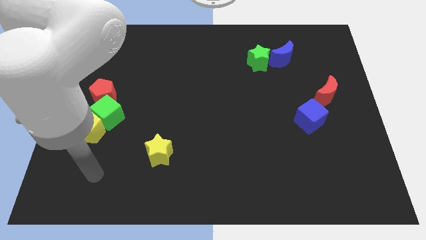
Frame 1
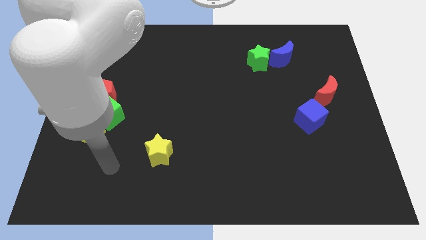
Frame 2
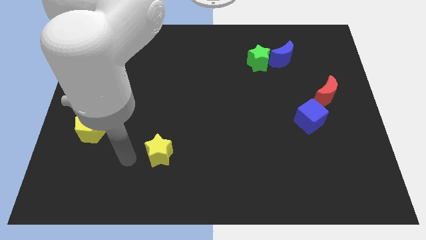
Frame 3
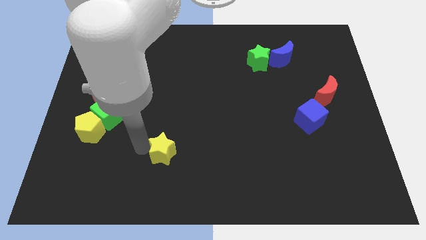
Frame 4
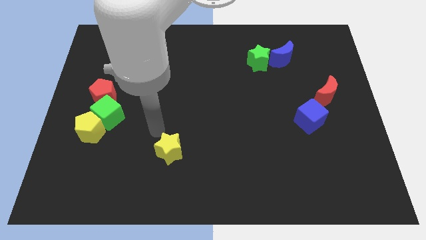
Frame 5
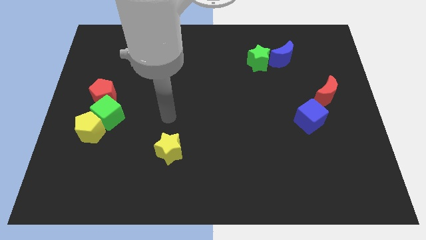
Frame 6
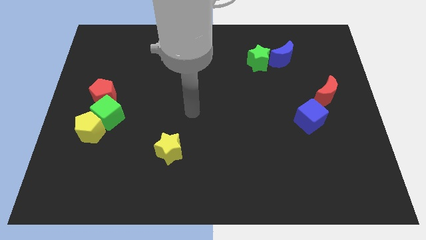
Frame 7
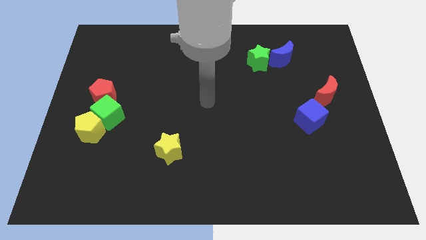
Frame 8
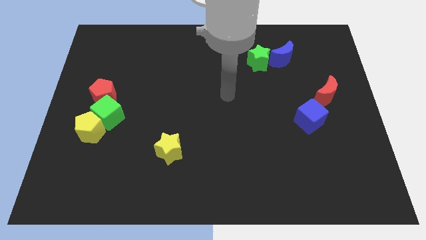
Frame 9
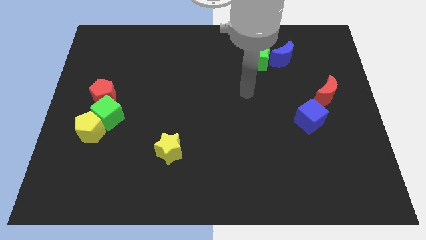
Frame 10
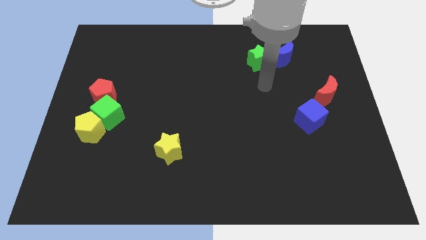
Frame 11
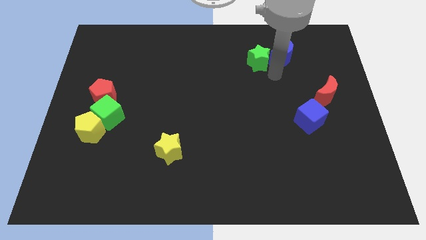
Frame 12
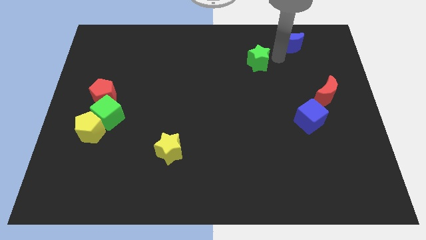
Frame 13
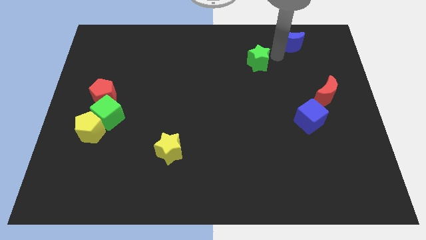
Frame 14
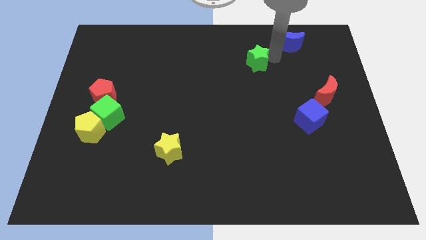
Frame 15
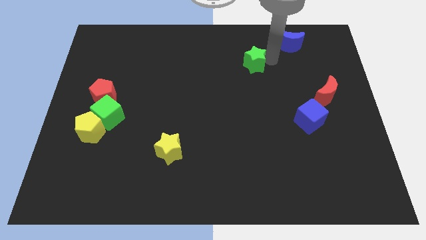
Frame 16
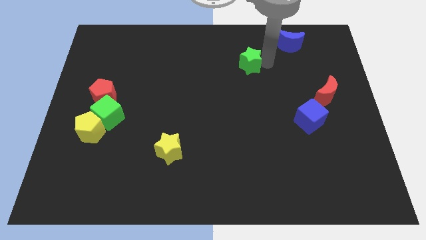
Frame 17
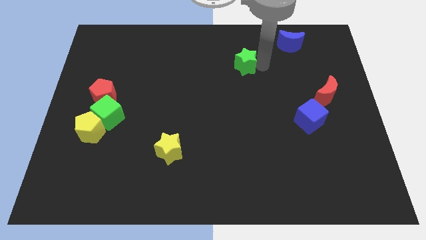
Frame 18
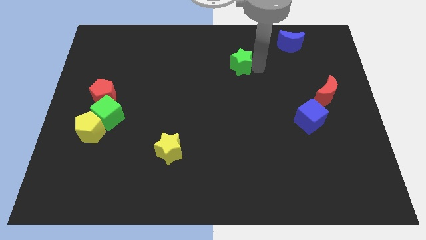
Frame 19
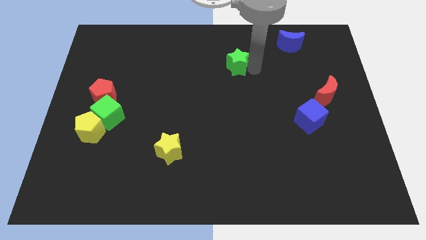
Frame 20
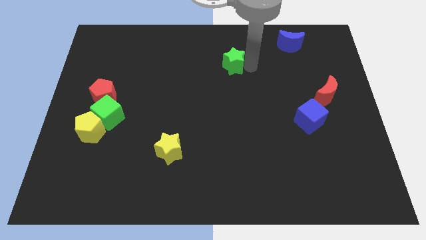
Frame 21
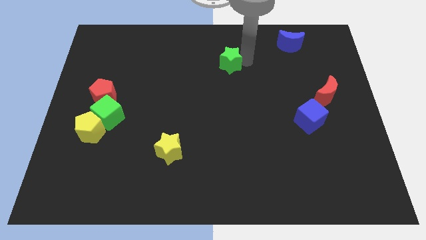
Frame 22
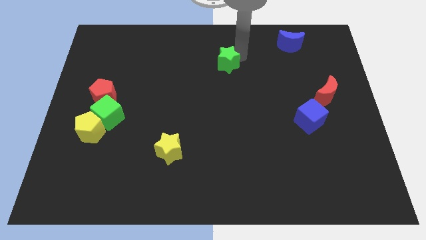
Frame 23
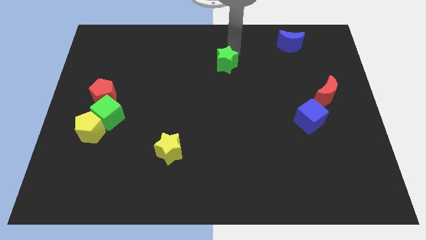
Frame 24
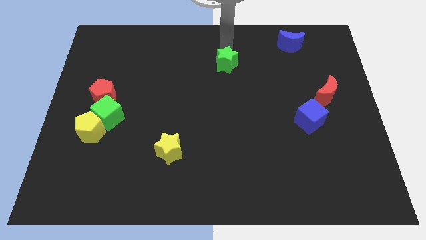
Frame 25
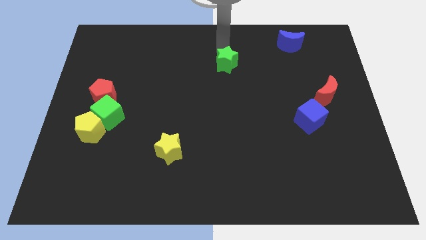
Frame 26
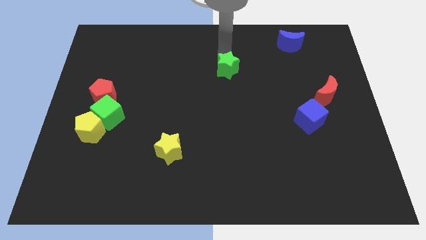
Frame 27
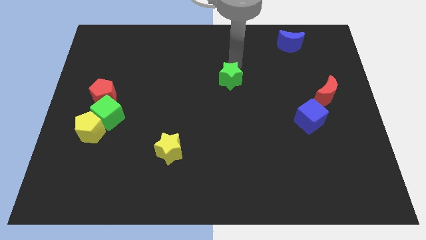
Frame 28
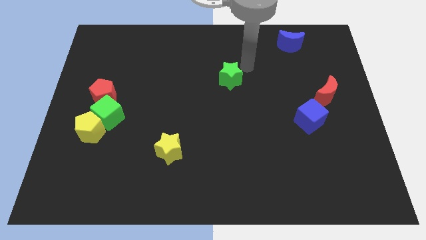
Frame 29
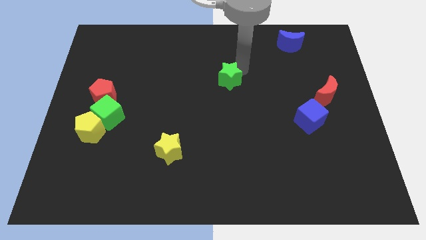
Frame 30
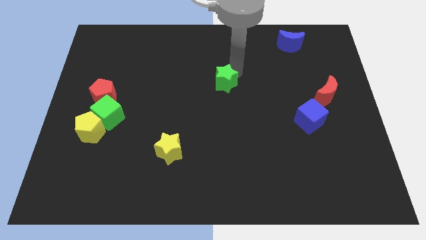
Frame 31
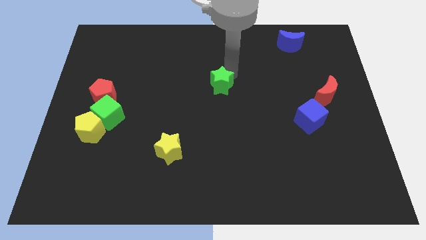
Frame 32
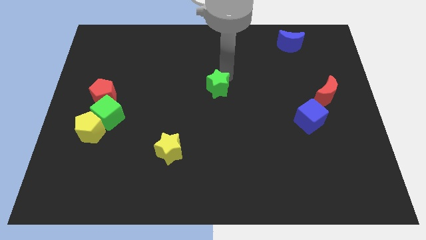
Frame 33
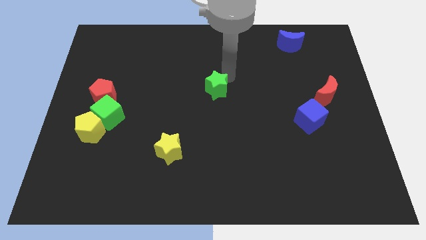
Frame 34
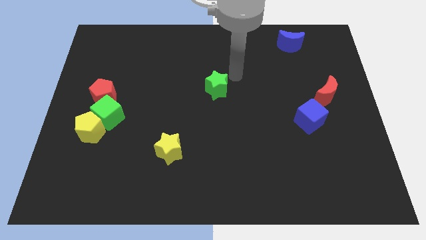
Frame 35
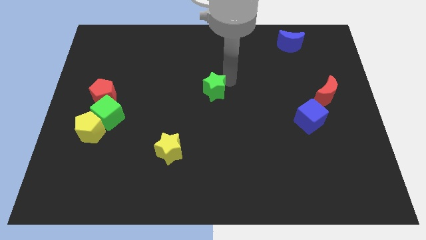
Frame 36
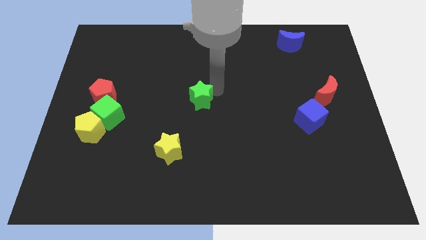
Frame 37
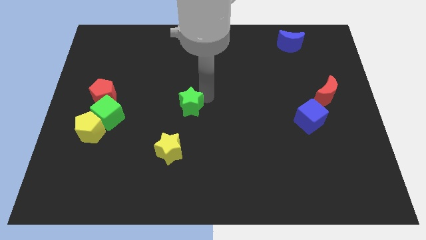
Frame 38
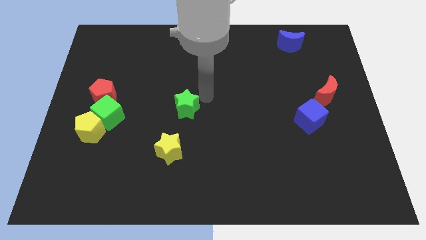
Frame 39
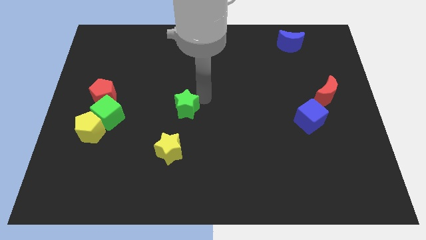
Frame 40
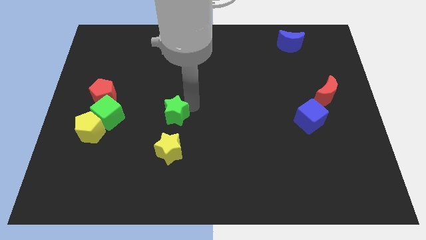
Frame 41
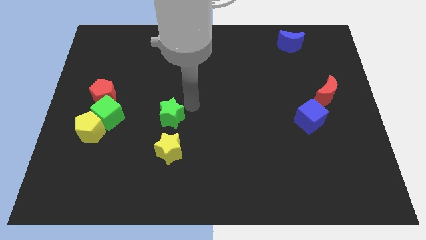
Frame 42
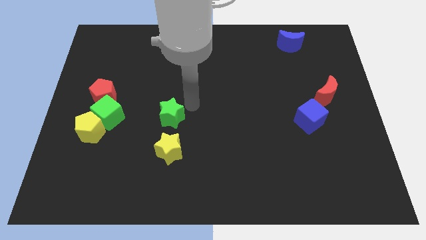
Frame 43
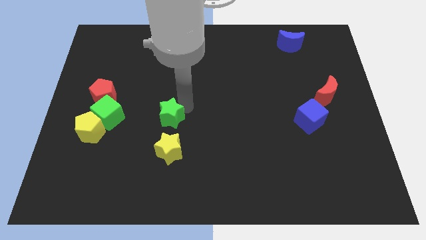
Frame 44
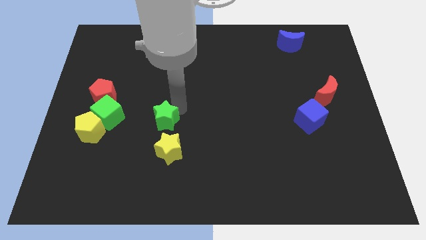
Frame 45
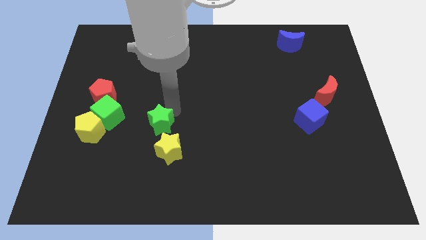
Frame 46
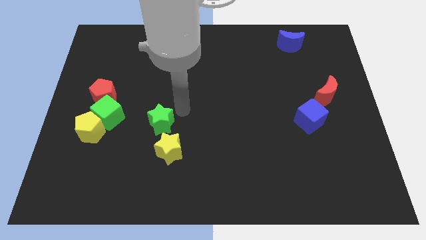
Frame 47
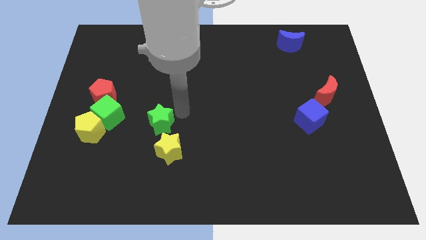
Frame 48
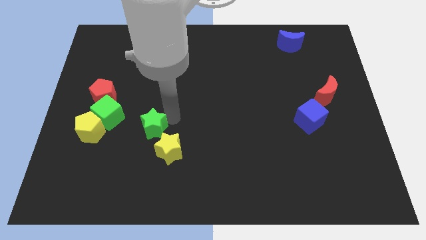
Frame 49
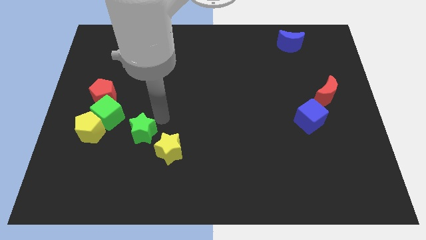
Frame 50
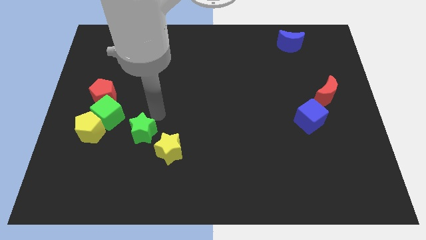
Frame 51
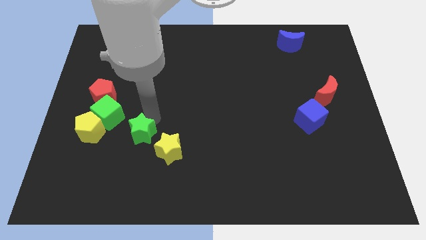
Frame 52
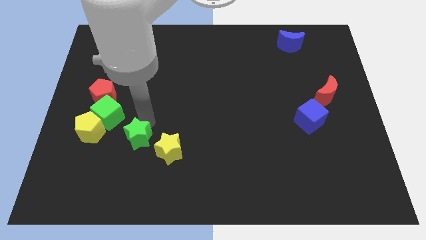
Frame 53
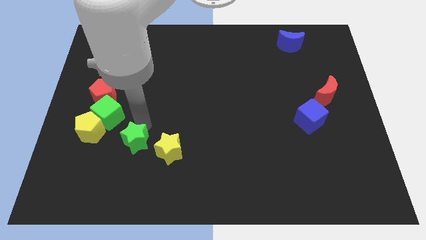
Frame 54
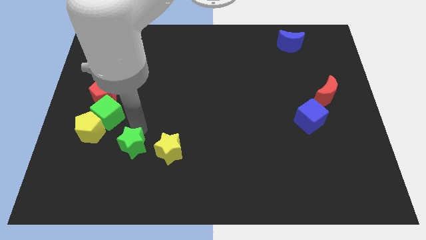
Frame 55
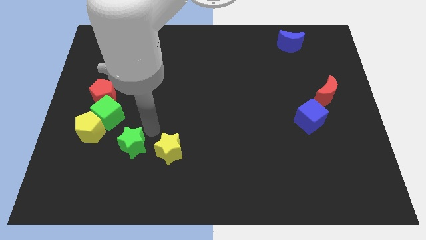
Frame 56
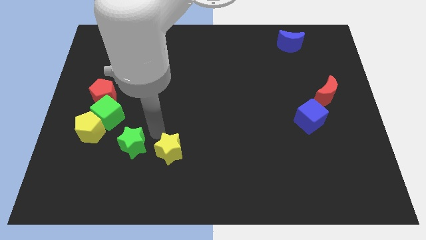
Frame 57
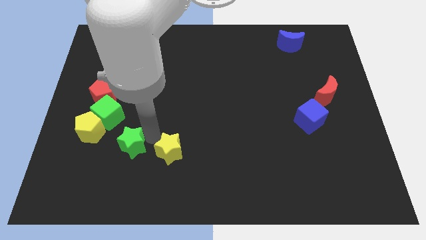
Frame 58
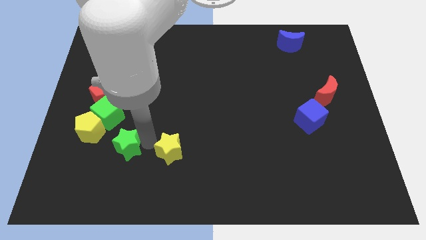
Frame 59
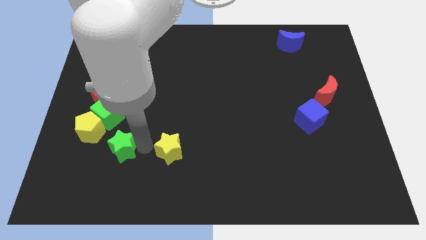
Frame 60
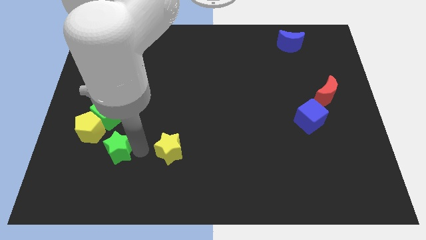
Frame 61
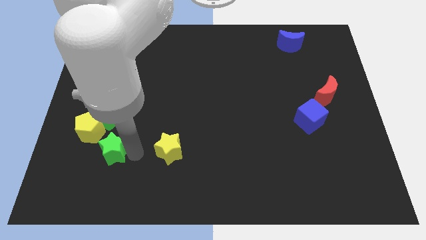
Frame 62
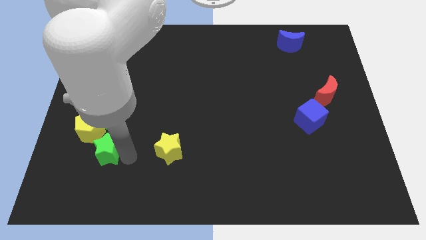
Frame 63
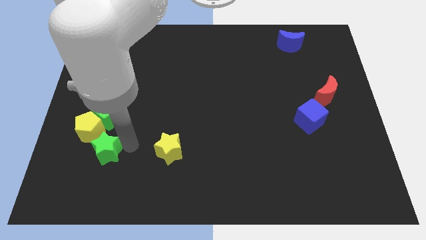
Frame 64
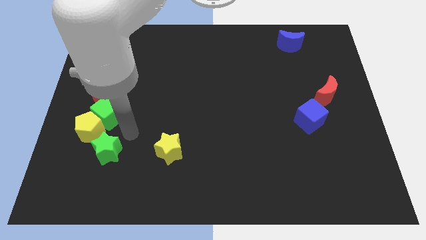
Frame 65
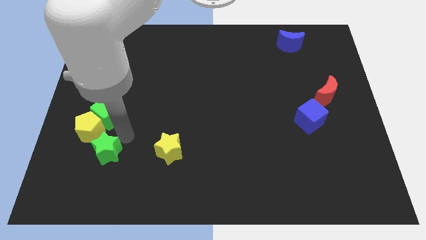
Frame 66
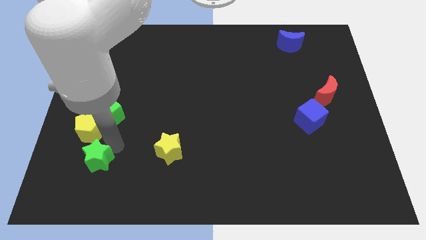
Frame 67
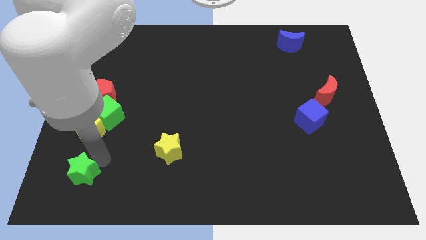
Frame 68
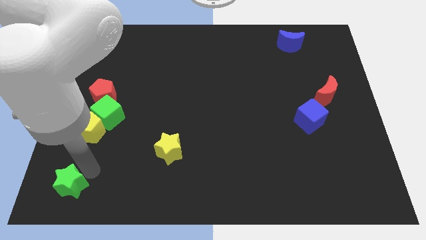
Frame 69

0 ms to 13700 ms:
slide the green star to the lower left corner
